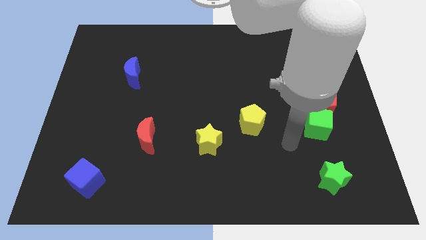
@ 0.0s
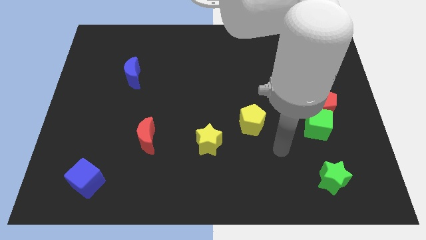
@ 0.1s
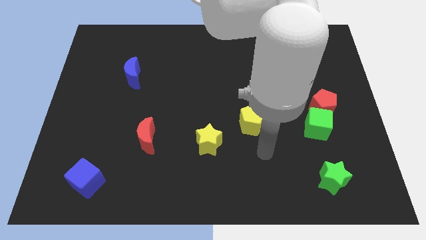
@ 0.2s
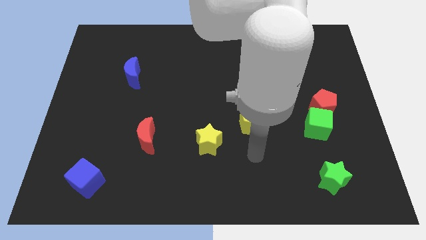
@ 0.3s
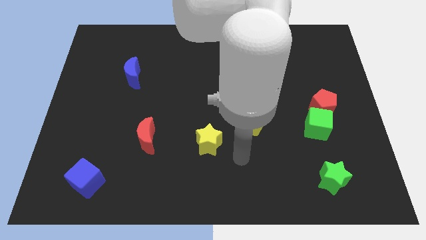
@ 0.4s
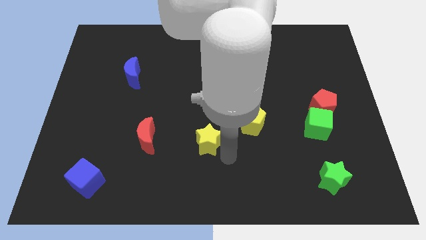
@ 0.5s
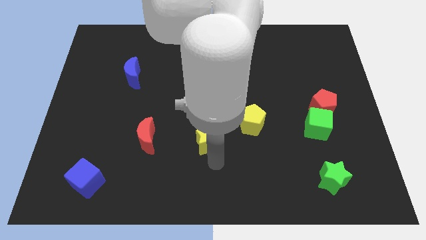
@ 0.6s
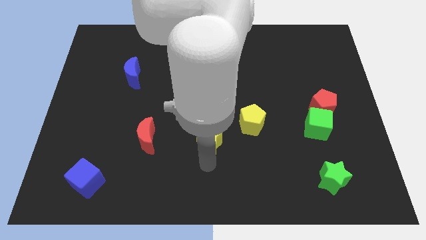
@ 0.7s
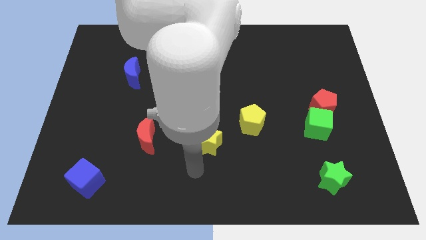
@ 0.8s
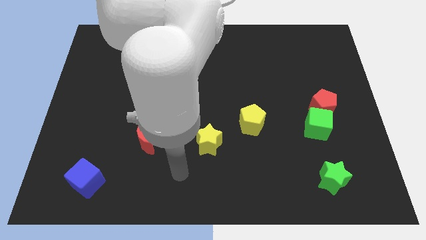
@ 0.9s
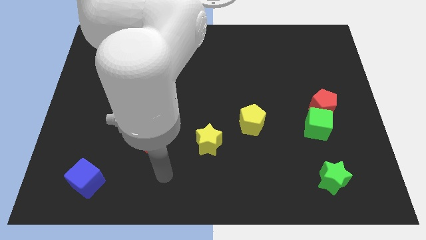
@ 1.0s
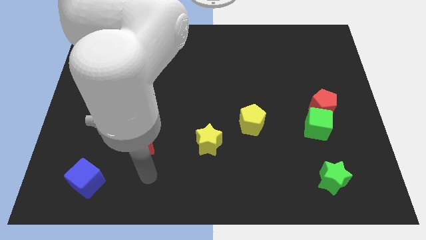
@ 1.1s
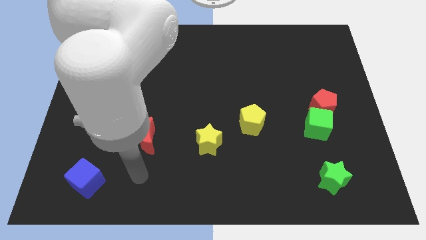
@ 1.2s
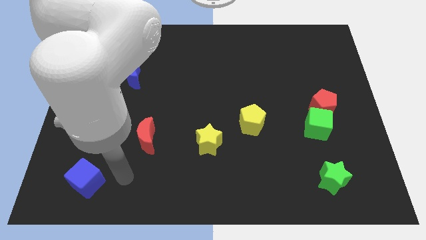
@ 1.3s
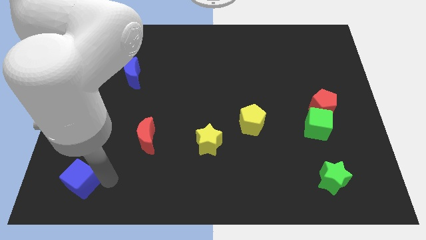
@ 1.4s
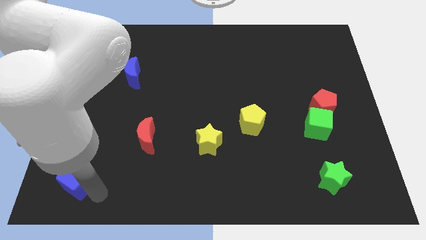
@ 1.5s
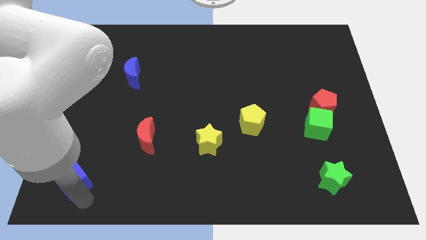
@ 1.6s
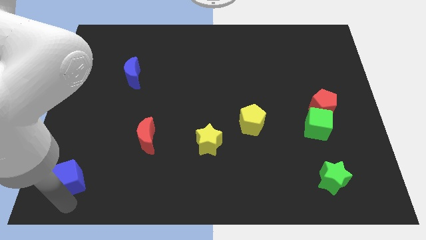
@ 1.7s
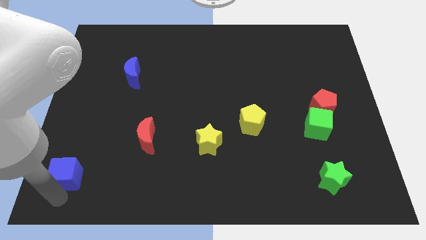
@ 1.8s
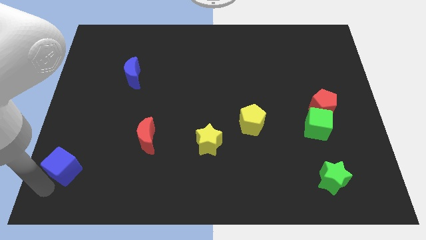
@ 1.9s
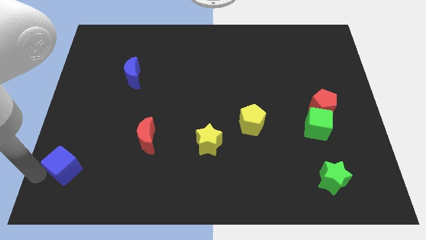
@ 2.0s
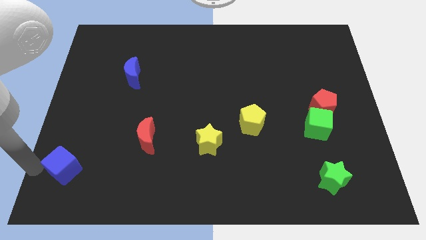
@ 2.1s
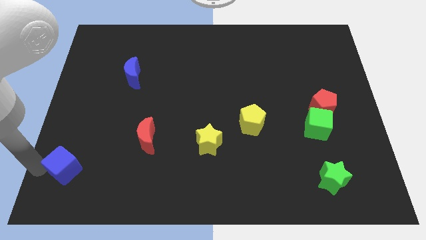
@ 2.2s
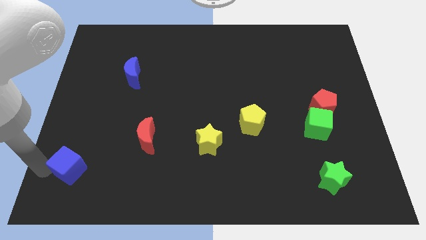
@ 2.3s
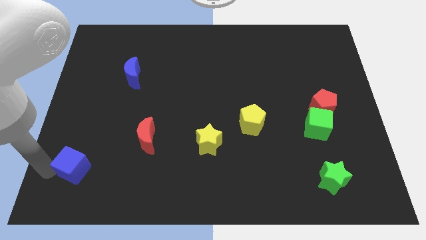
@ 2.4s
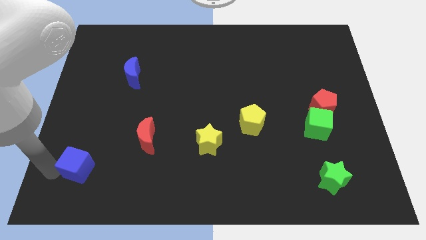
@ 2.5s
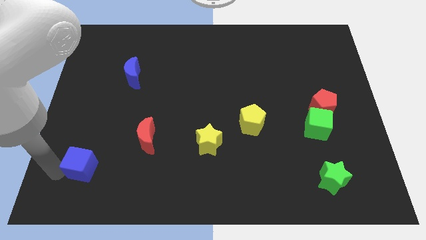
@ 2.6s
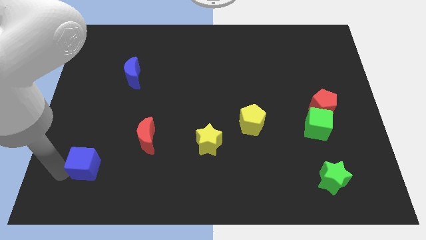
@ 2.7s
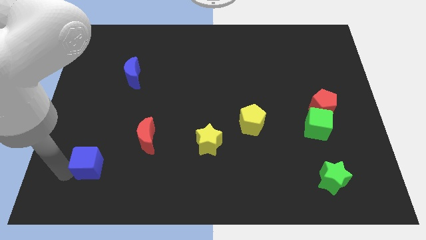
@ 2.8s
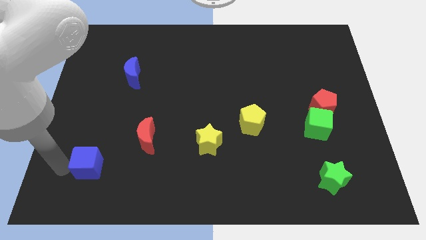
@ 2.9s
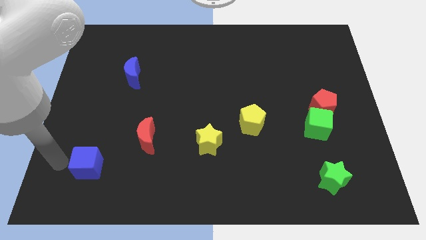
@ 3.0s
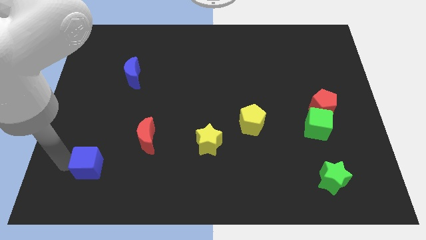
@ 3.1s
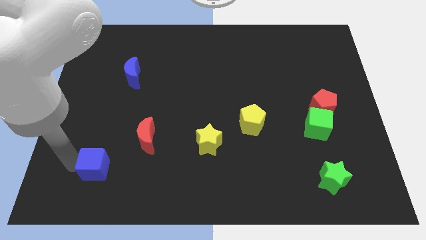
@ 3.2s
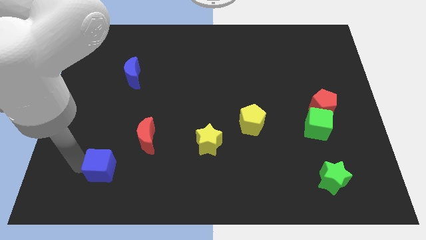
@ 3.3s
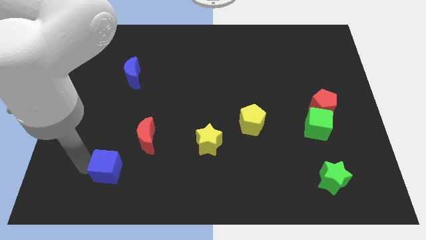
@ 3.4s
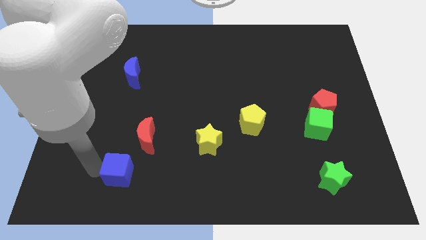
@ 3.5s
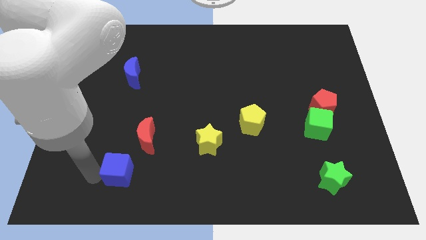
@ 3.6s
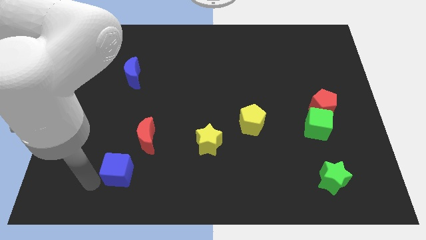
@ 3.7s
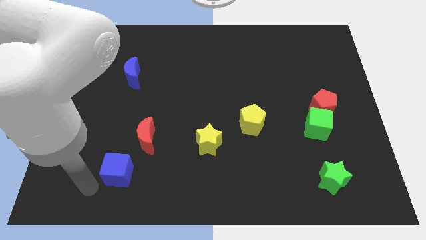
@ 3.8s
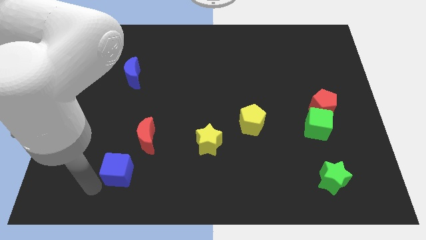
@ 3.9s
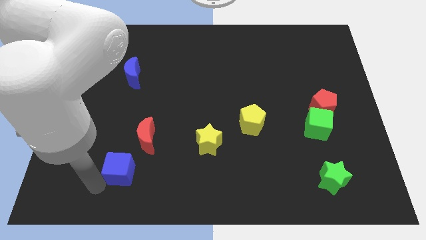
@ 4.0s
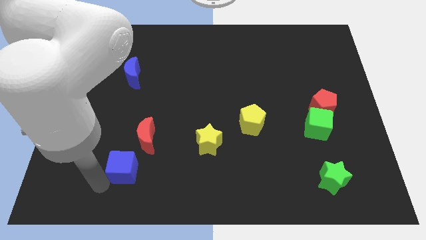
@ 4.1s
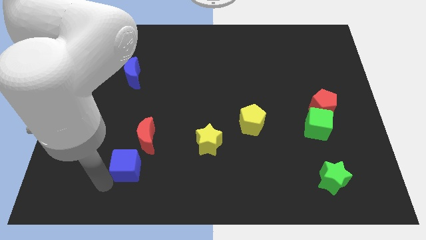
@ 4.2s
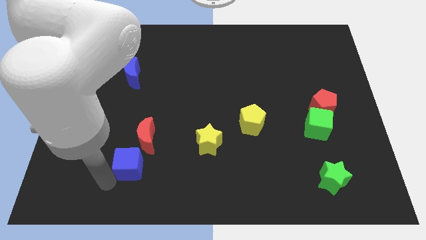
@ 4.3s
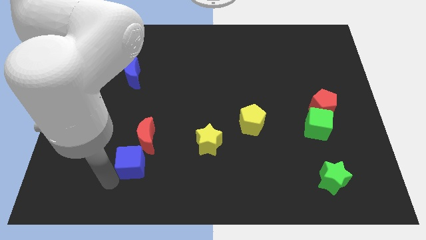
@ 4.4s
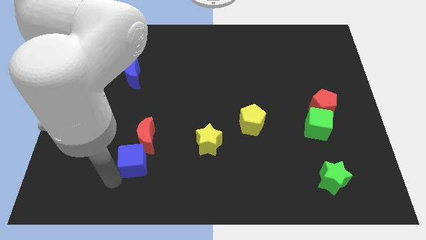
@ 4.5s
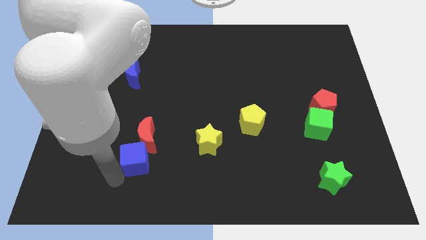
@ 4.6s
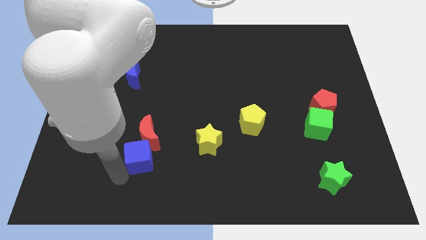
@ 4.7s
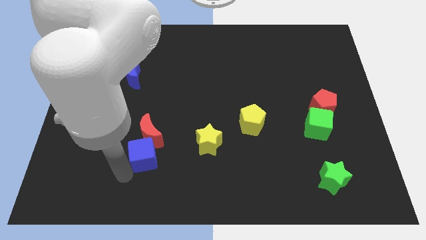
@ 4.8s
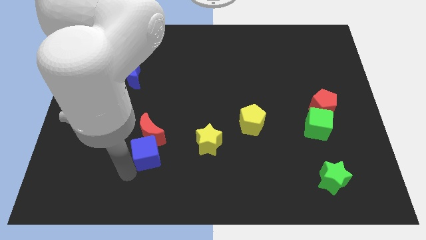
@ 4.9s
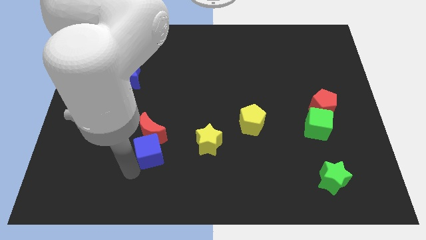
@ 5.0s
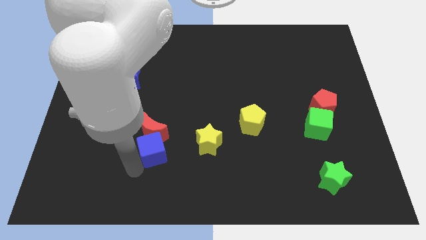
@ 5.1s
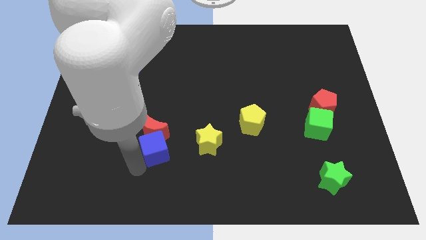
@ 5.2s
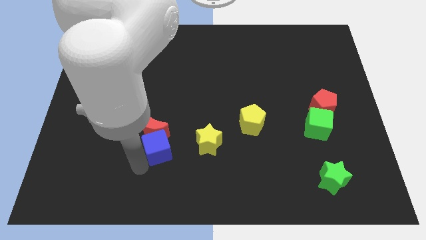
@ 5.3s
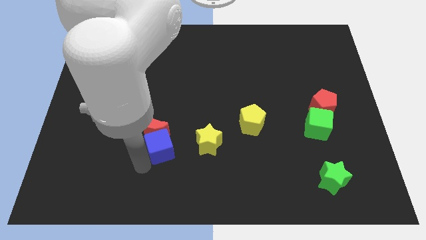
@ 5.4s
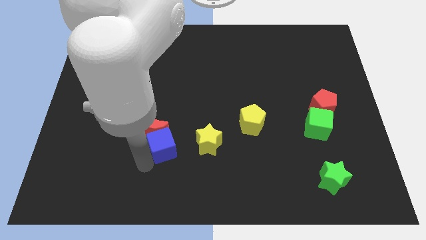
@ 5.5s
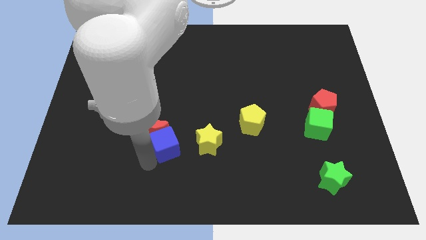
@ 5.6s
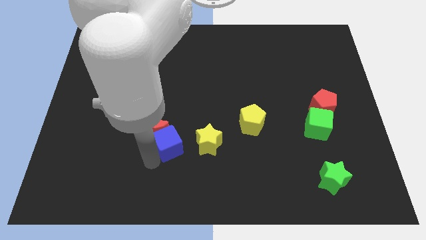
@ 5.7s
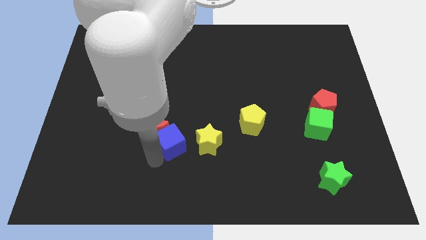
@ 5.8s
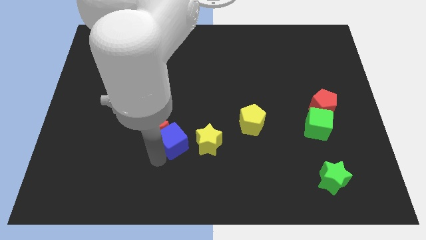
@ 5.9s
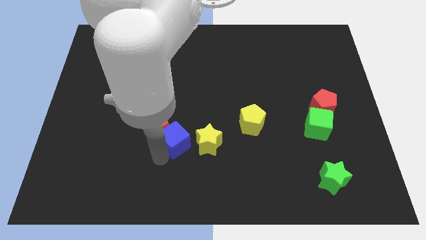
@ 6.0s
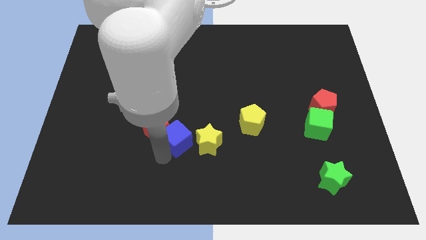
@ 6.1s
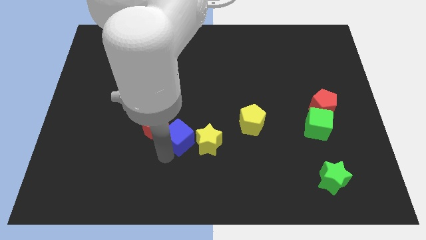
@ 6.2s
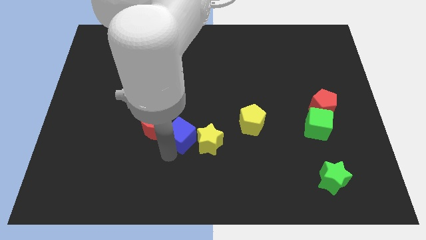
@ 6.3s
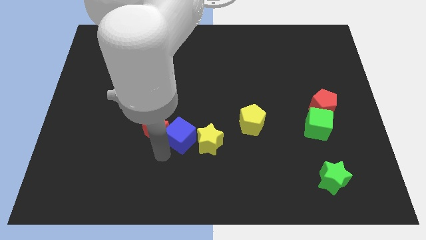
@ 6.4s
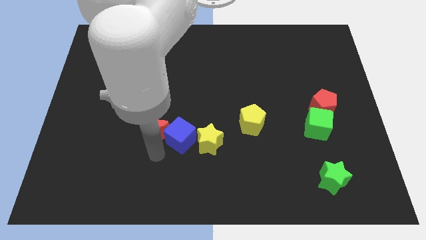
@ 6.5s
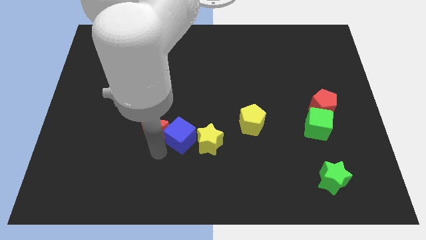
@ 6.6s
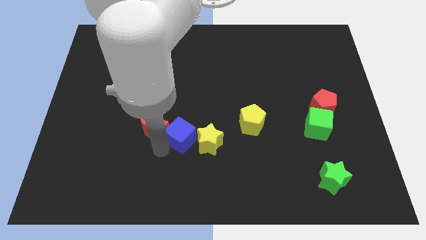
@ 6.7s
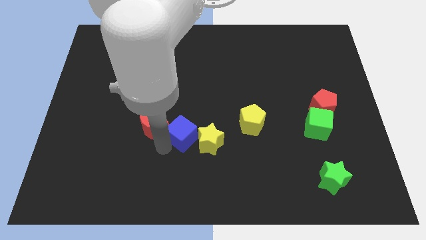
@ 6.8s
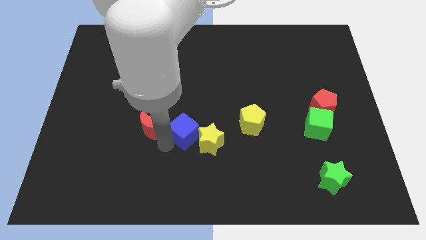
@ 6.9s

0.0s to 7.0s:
put the blue cube just left of the yellow pentagon
